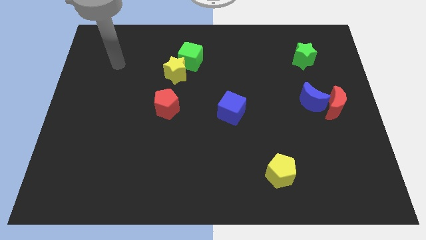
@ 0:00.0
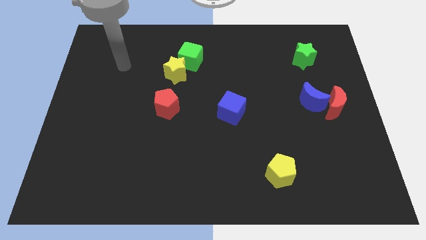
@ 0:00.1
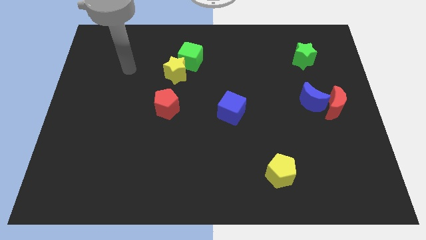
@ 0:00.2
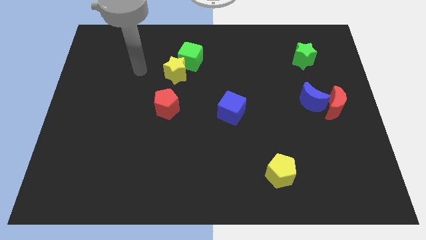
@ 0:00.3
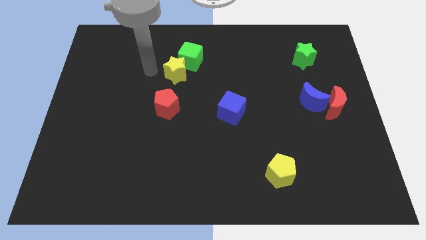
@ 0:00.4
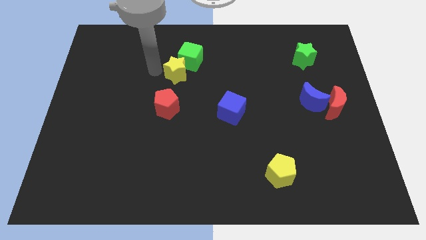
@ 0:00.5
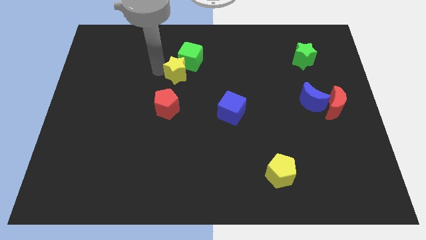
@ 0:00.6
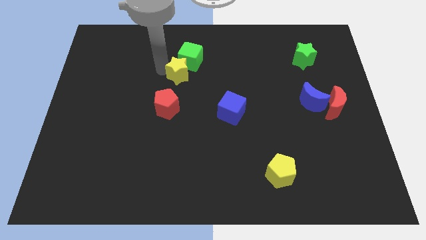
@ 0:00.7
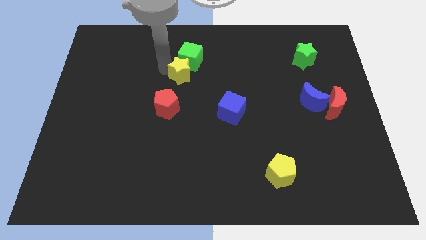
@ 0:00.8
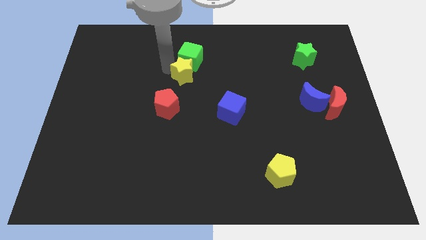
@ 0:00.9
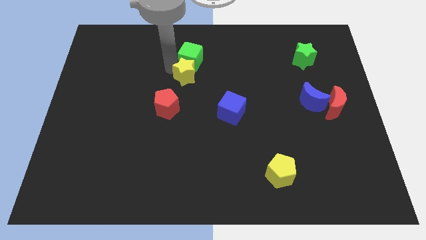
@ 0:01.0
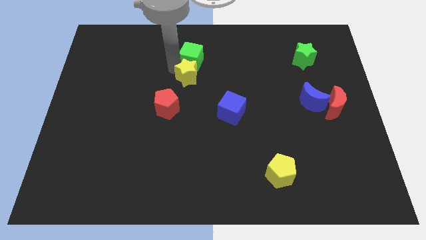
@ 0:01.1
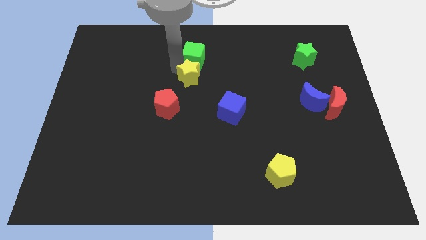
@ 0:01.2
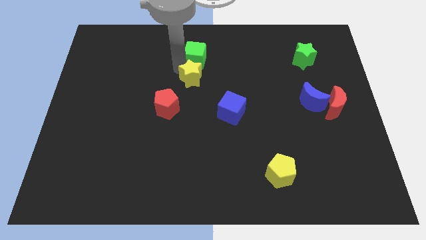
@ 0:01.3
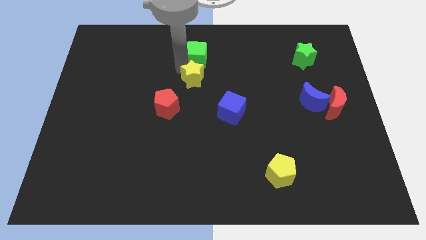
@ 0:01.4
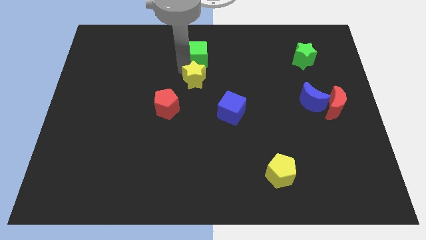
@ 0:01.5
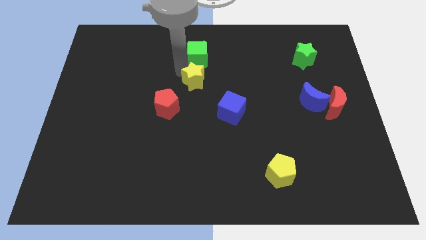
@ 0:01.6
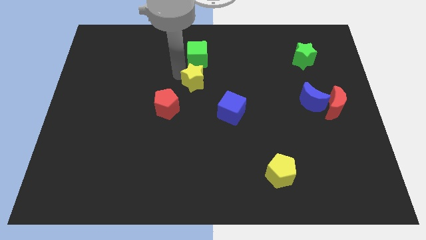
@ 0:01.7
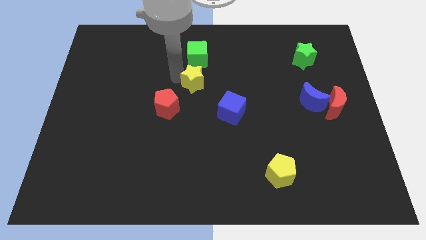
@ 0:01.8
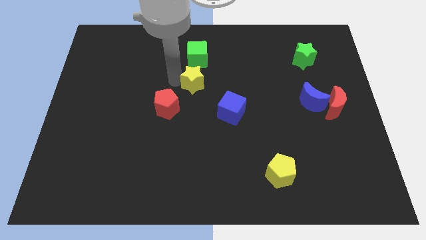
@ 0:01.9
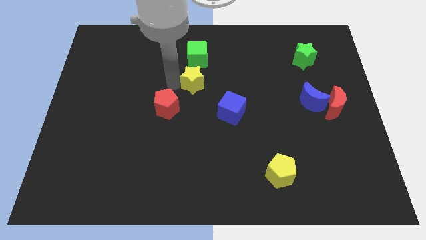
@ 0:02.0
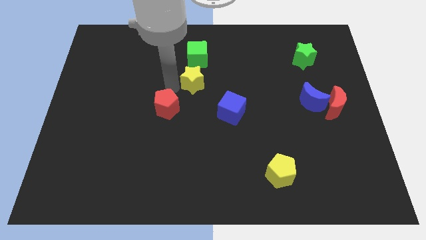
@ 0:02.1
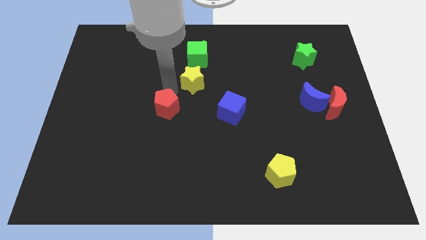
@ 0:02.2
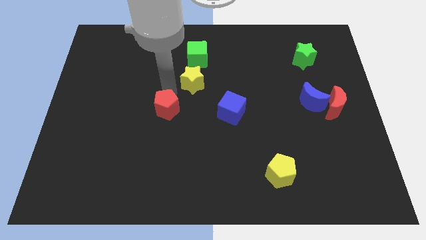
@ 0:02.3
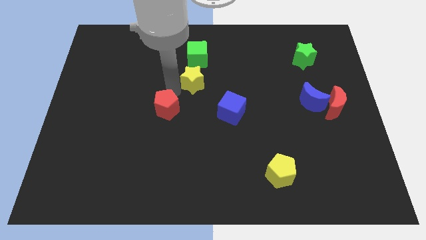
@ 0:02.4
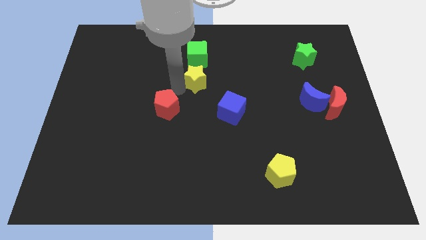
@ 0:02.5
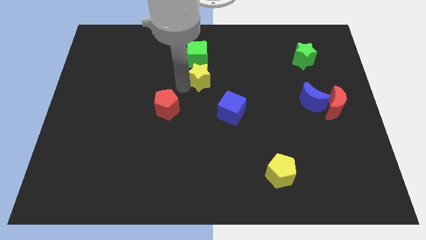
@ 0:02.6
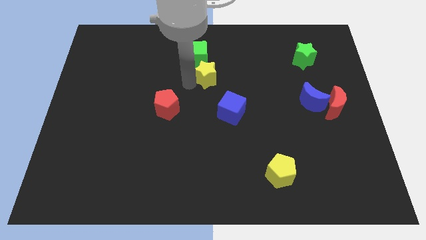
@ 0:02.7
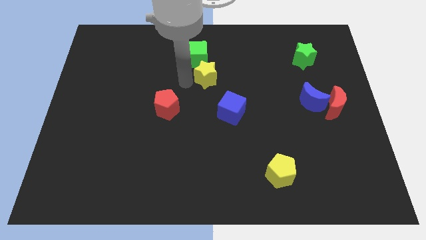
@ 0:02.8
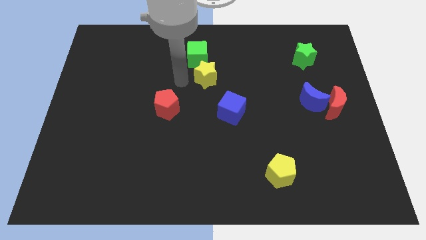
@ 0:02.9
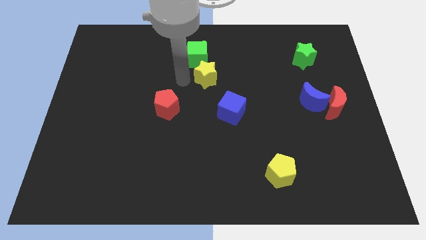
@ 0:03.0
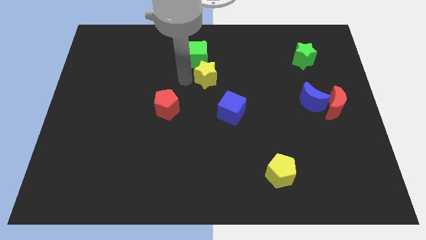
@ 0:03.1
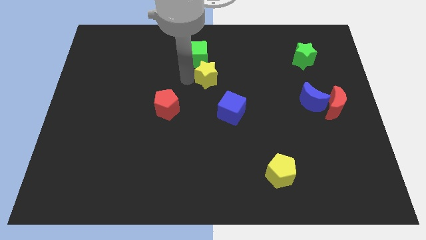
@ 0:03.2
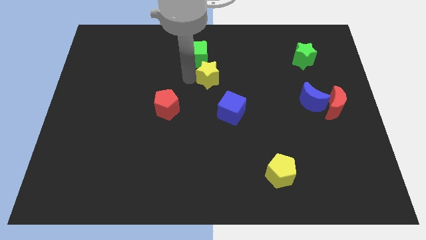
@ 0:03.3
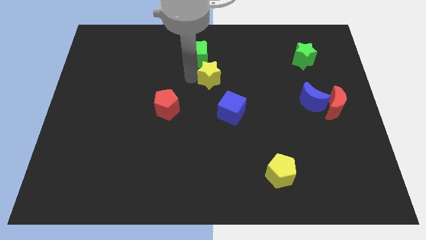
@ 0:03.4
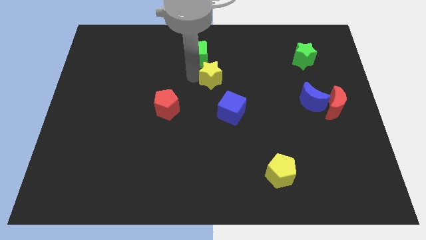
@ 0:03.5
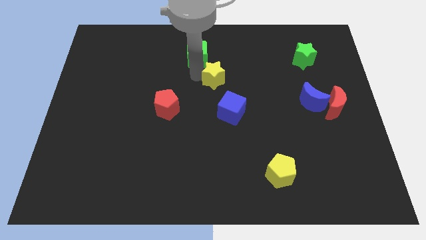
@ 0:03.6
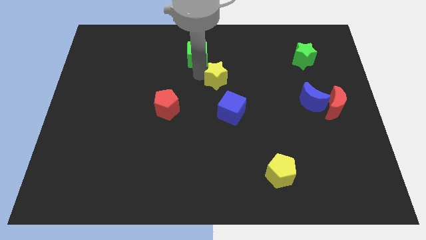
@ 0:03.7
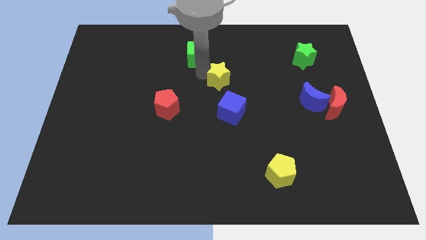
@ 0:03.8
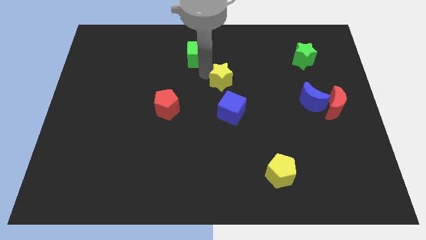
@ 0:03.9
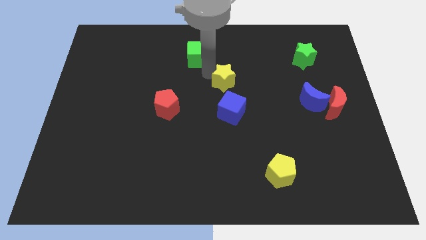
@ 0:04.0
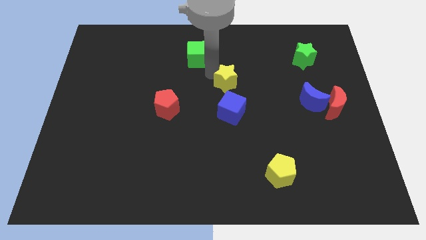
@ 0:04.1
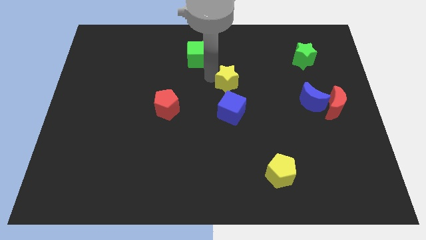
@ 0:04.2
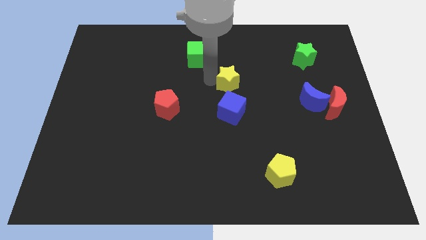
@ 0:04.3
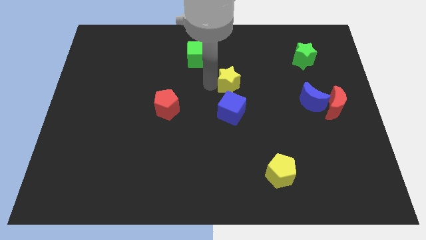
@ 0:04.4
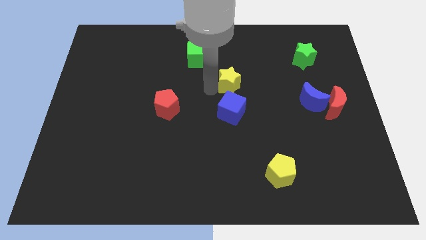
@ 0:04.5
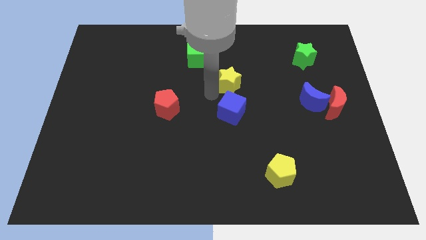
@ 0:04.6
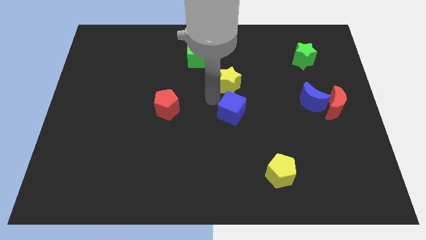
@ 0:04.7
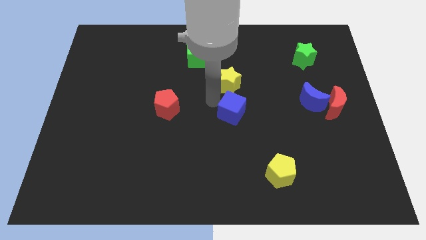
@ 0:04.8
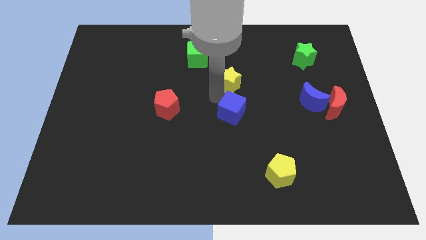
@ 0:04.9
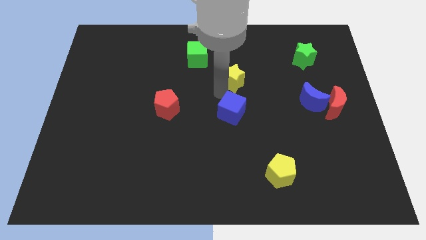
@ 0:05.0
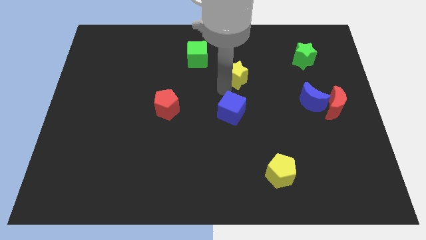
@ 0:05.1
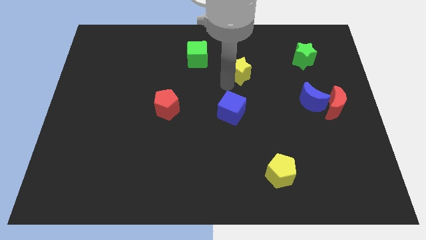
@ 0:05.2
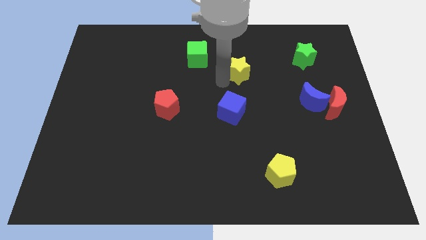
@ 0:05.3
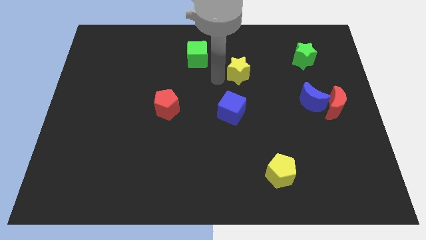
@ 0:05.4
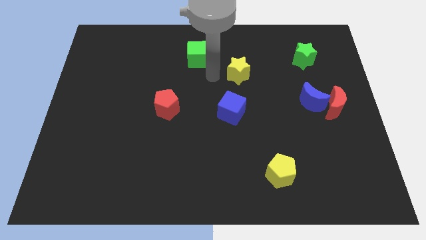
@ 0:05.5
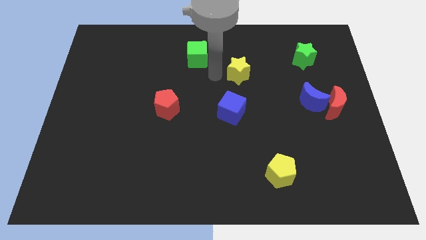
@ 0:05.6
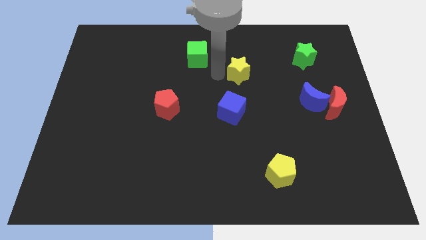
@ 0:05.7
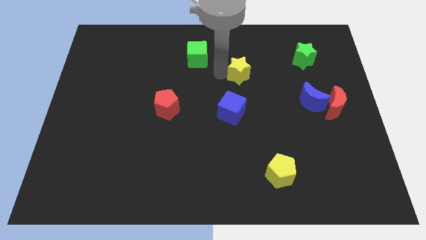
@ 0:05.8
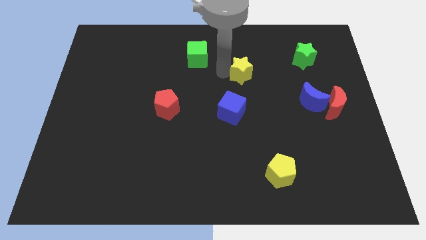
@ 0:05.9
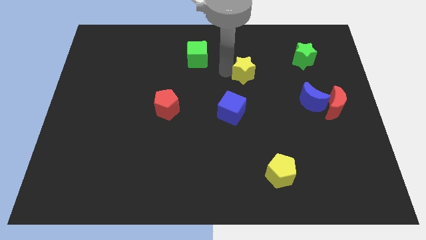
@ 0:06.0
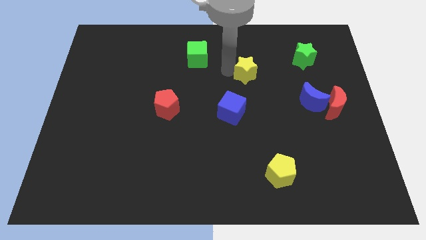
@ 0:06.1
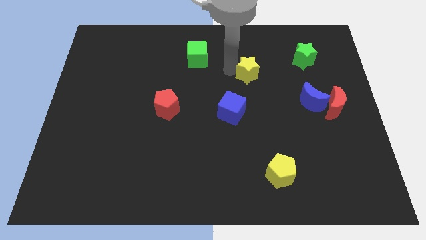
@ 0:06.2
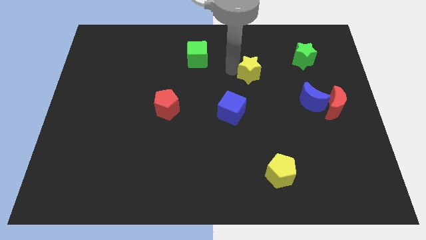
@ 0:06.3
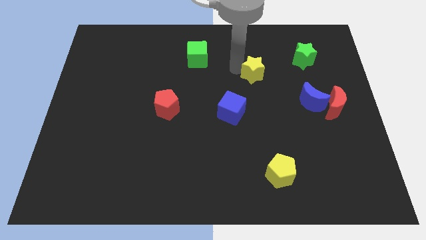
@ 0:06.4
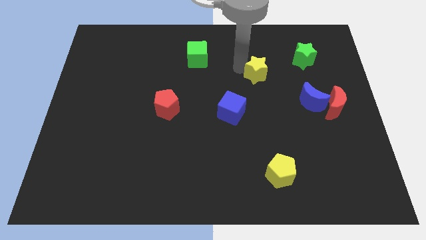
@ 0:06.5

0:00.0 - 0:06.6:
move the yellow star to the right

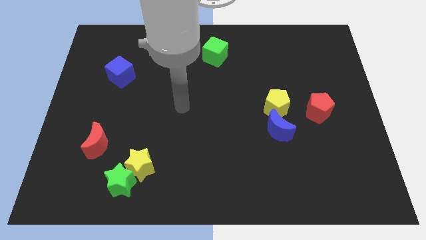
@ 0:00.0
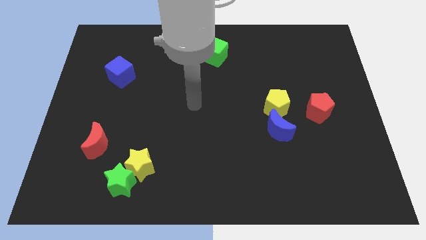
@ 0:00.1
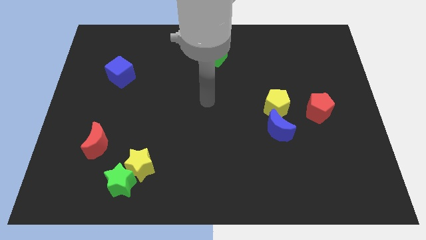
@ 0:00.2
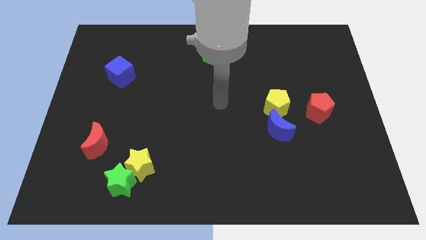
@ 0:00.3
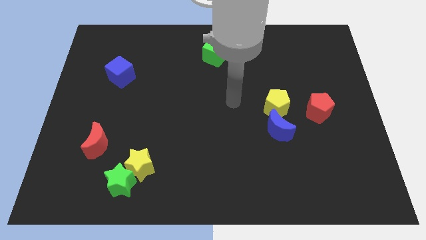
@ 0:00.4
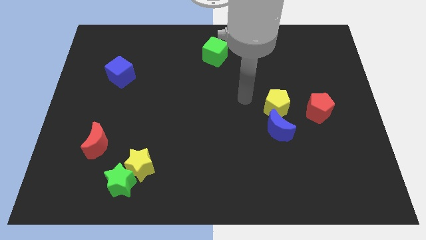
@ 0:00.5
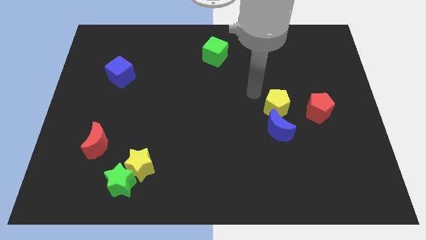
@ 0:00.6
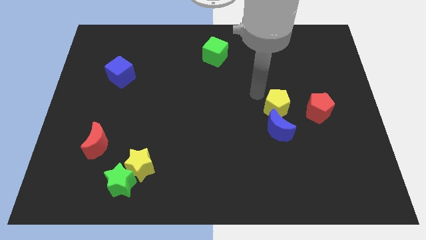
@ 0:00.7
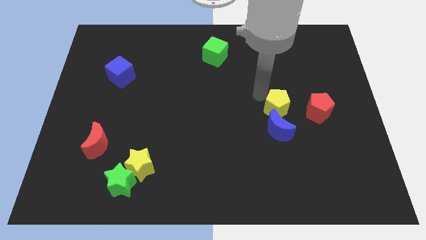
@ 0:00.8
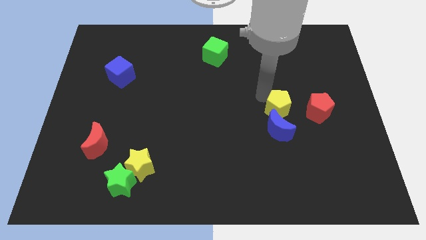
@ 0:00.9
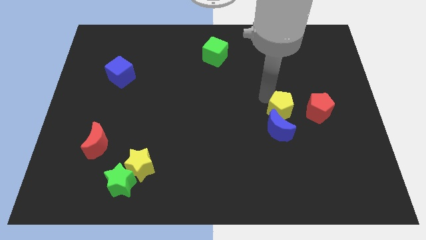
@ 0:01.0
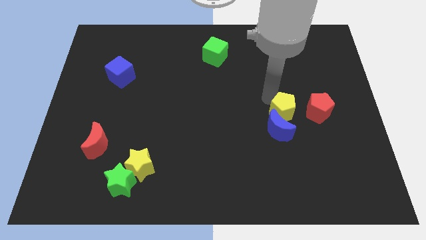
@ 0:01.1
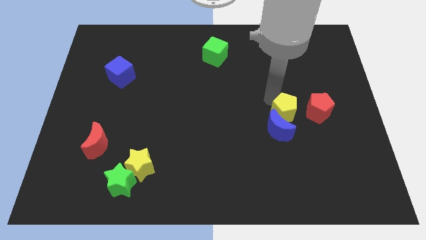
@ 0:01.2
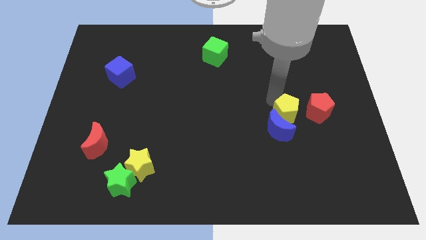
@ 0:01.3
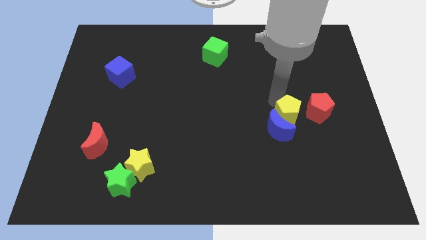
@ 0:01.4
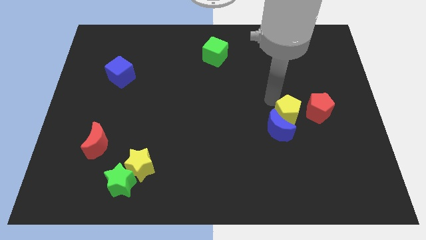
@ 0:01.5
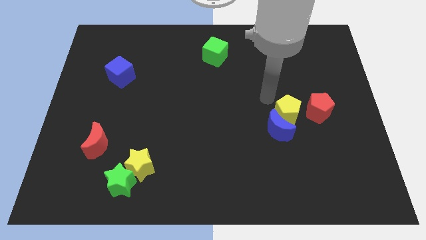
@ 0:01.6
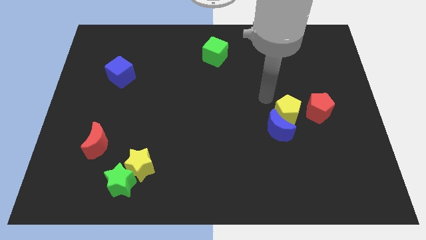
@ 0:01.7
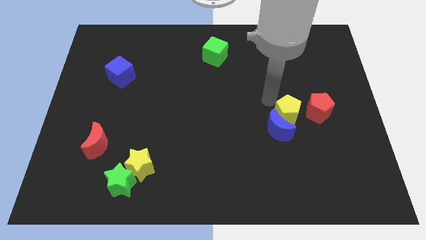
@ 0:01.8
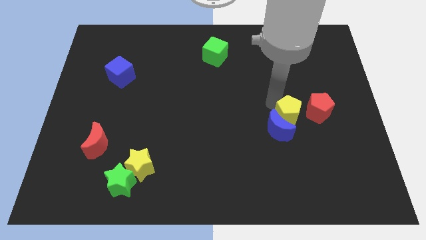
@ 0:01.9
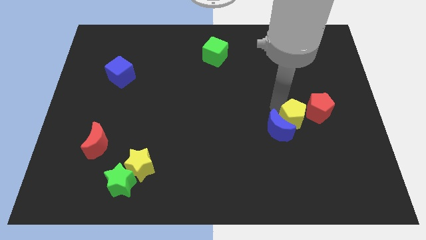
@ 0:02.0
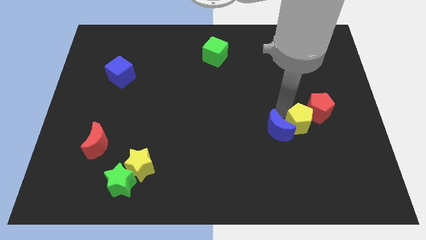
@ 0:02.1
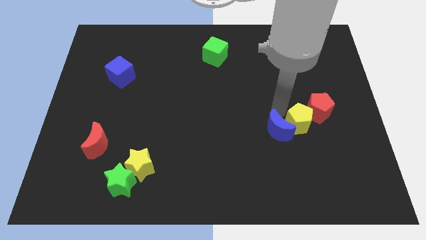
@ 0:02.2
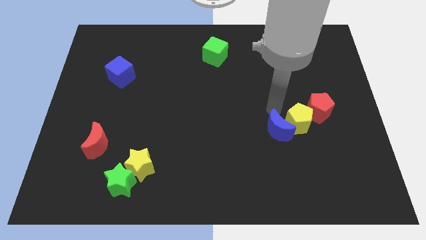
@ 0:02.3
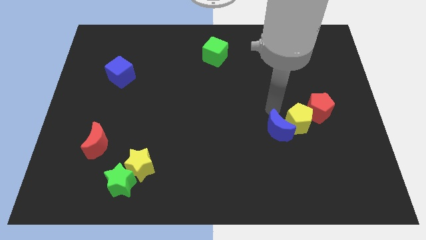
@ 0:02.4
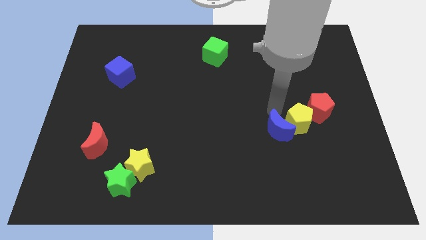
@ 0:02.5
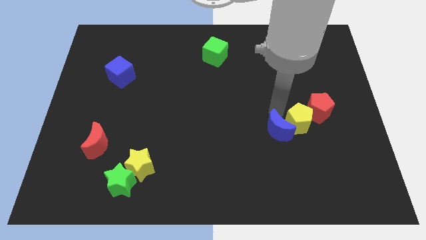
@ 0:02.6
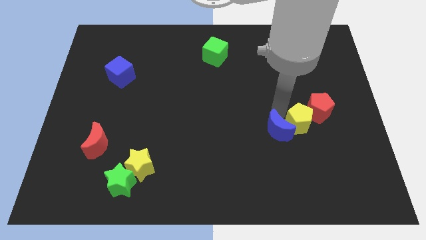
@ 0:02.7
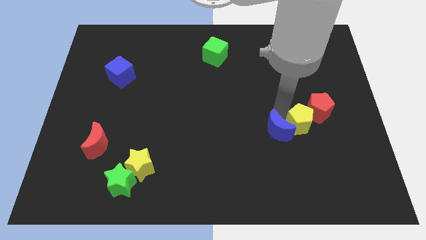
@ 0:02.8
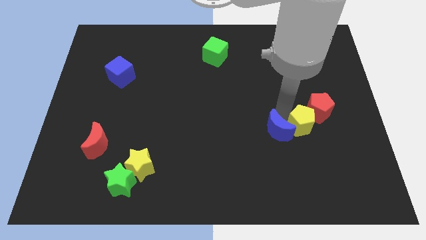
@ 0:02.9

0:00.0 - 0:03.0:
slide the yellow pentagon downwards and then to the right a bit
